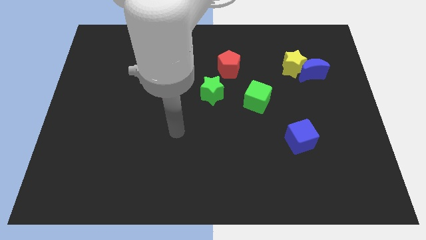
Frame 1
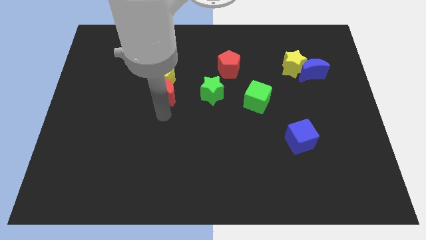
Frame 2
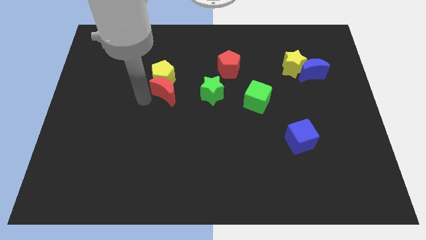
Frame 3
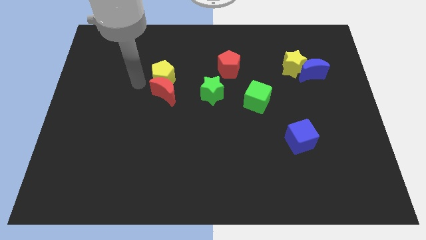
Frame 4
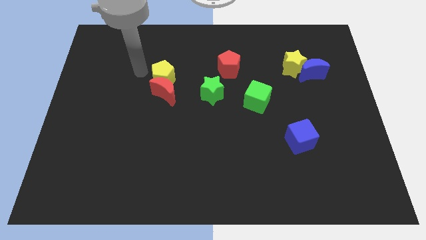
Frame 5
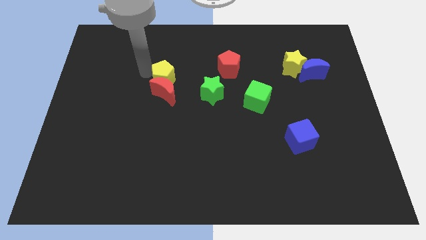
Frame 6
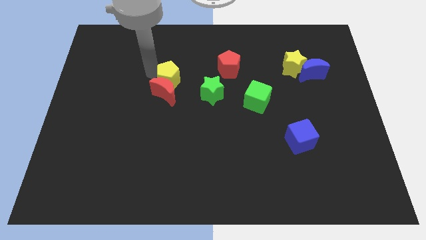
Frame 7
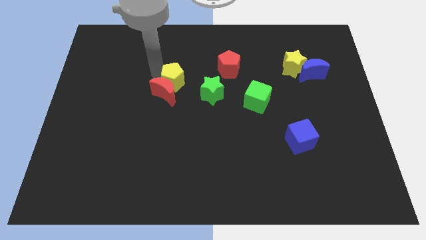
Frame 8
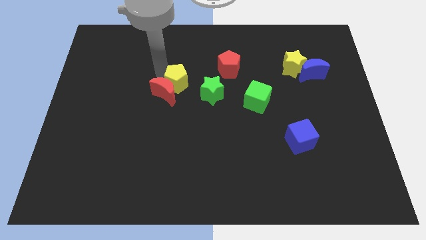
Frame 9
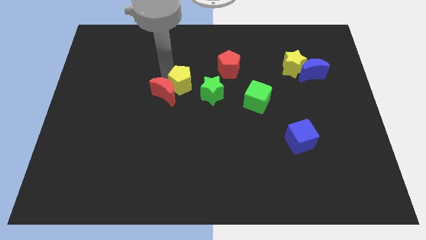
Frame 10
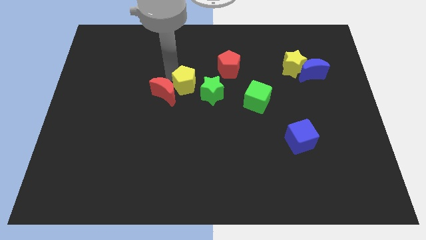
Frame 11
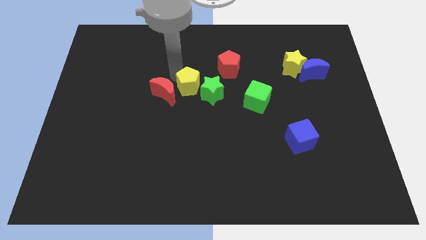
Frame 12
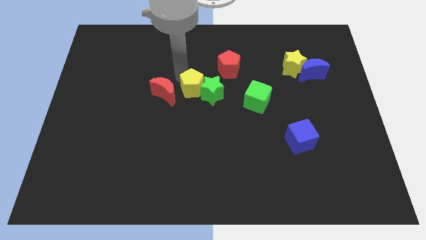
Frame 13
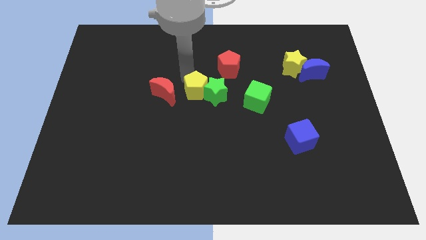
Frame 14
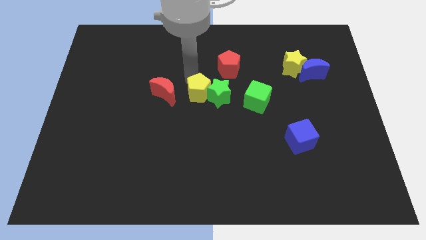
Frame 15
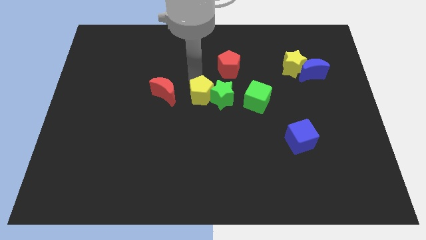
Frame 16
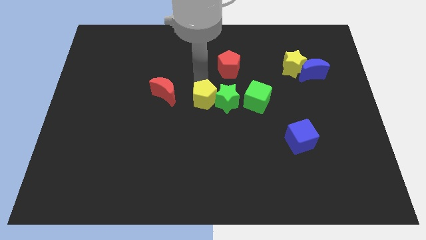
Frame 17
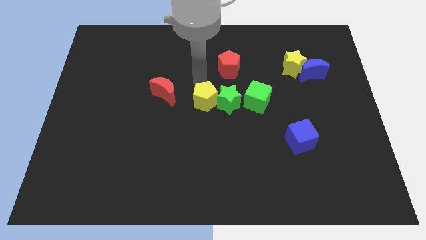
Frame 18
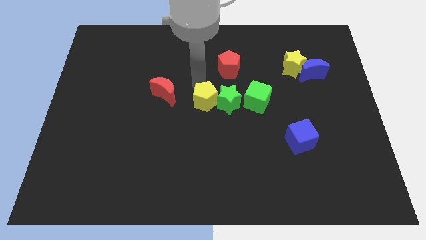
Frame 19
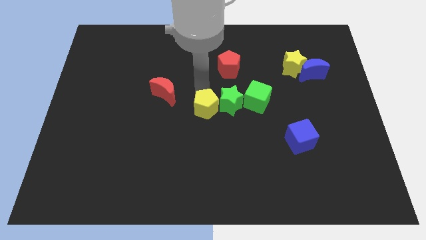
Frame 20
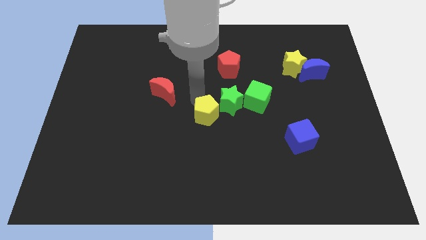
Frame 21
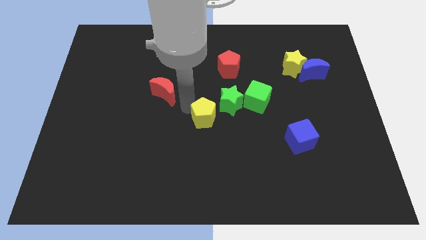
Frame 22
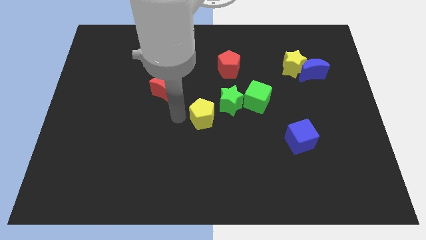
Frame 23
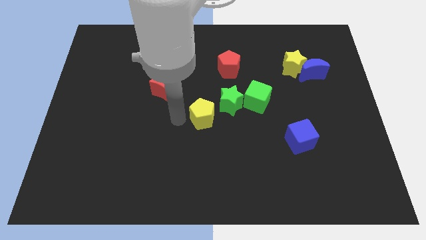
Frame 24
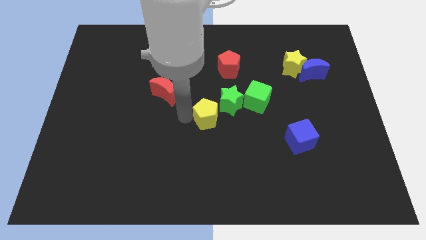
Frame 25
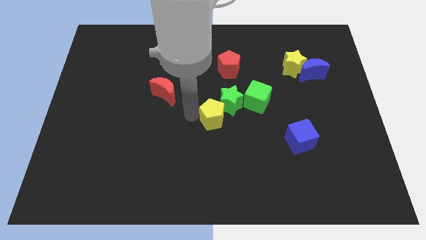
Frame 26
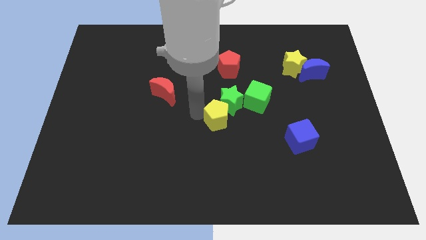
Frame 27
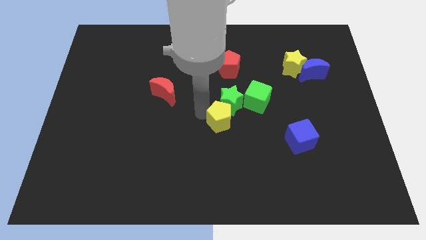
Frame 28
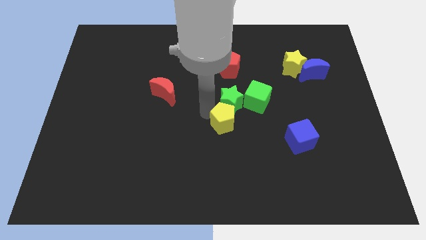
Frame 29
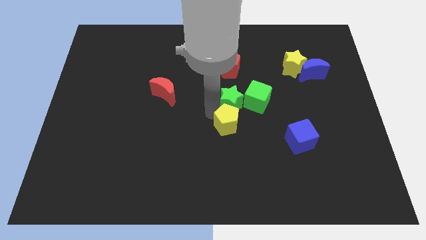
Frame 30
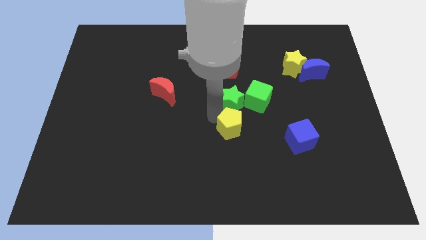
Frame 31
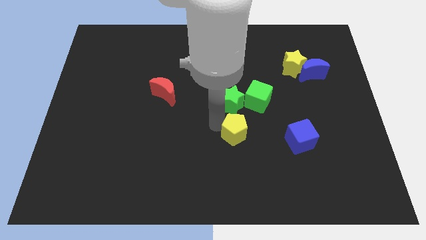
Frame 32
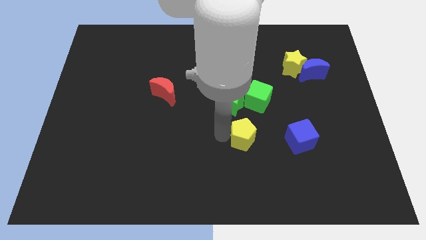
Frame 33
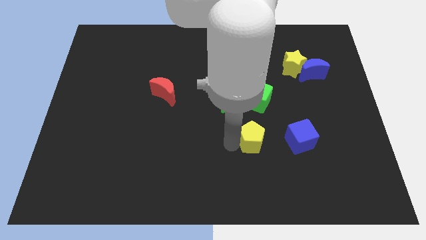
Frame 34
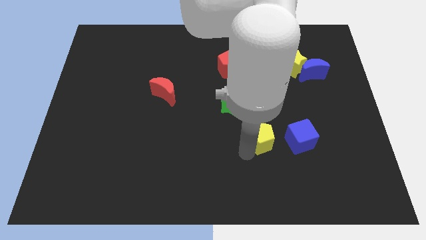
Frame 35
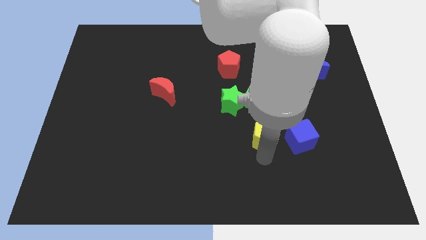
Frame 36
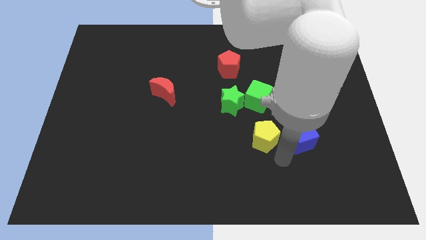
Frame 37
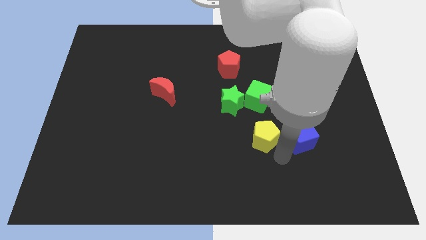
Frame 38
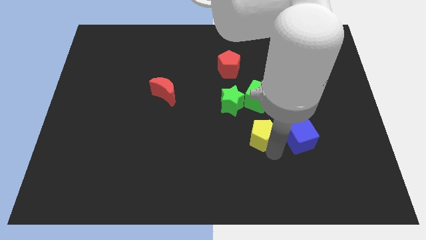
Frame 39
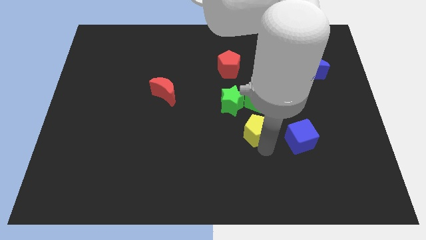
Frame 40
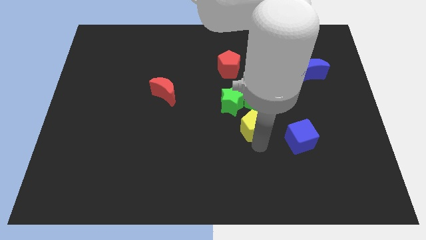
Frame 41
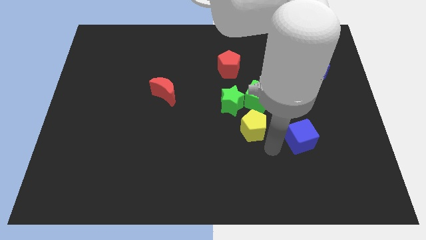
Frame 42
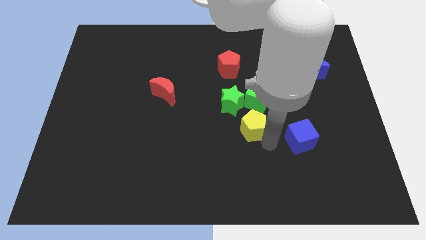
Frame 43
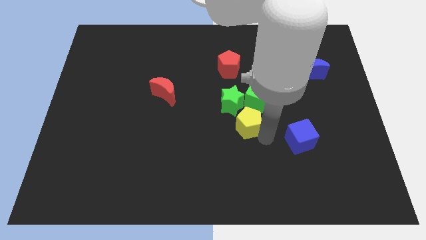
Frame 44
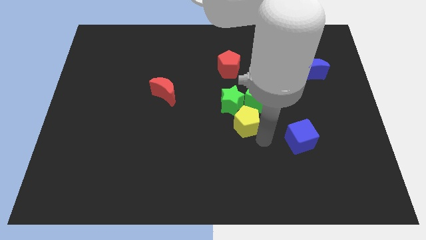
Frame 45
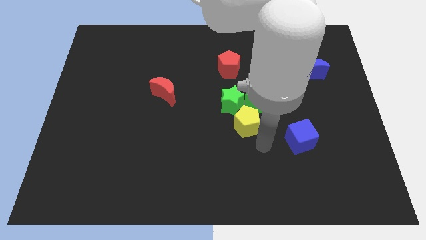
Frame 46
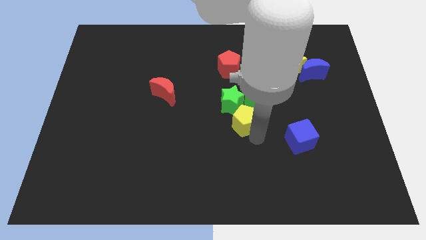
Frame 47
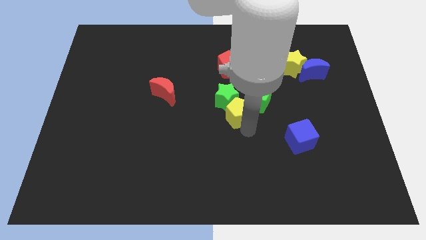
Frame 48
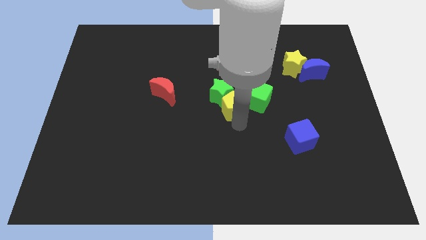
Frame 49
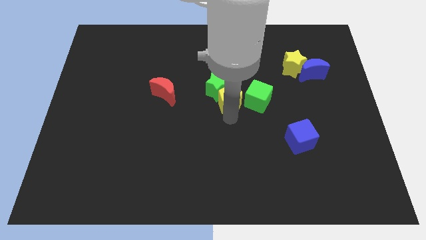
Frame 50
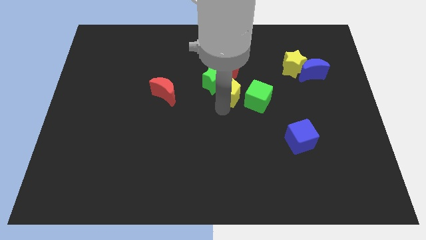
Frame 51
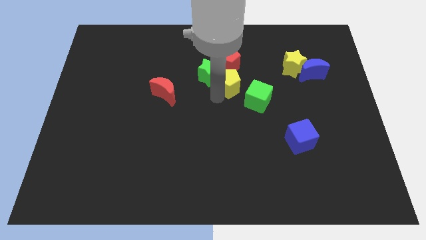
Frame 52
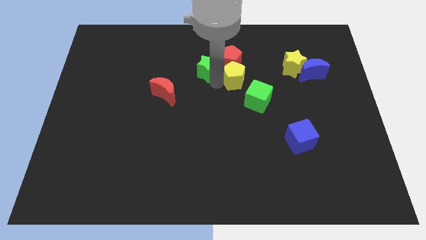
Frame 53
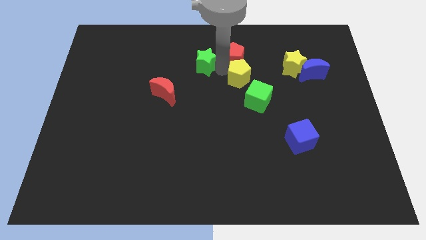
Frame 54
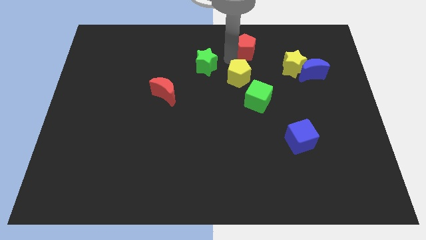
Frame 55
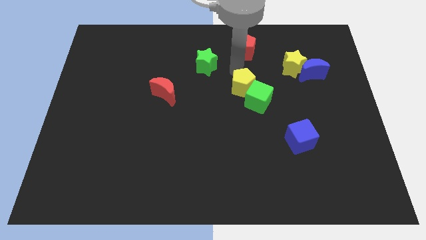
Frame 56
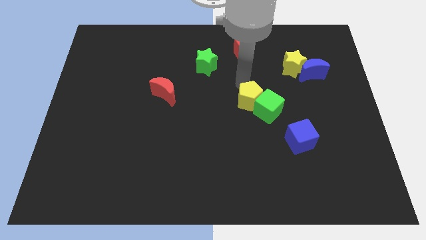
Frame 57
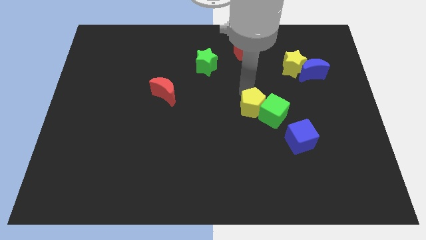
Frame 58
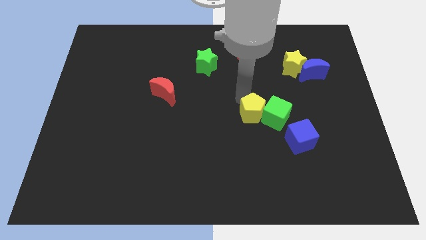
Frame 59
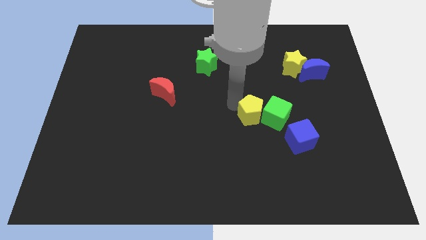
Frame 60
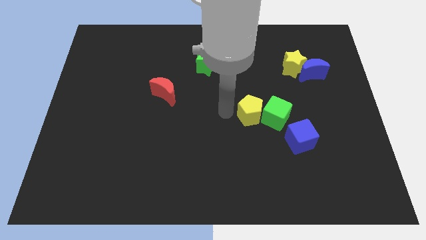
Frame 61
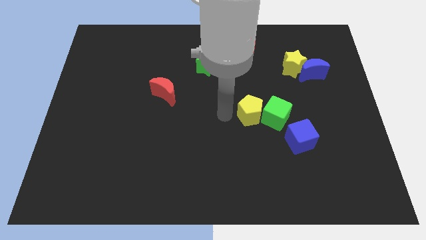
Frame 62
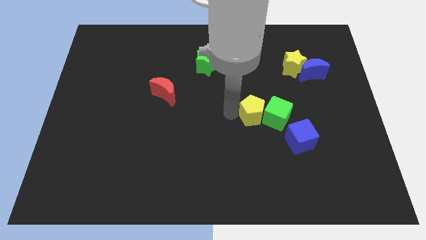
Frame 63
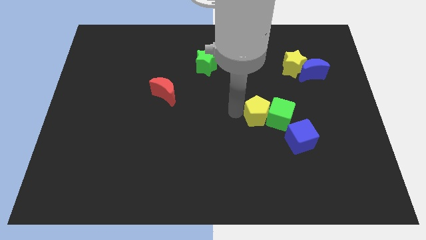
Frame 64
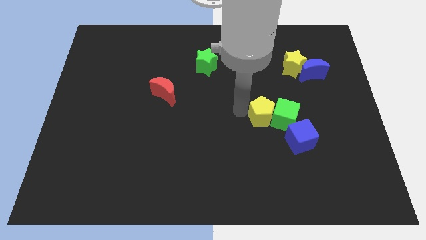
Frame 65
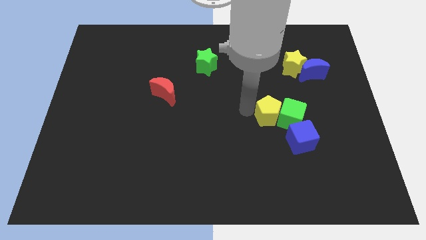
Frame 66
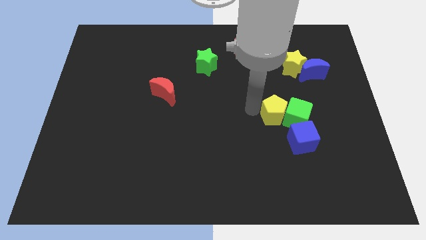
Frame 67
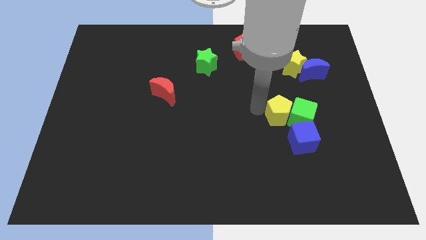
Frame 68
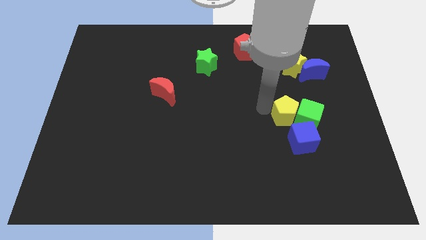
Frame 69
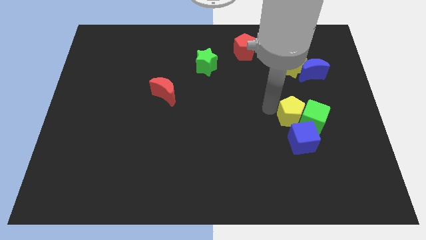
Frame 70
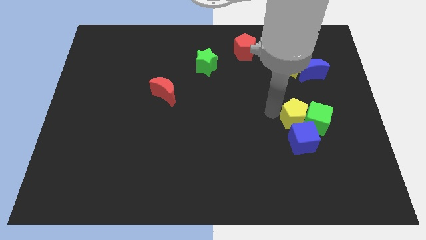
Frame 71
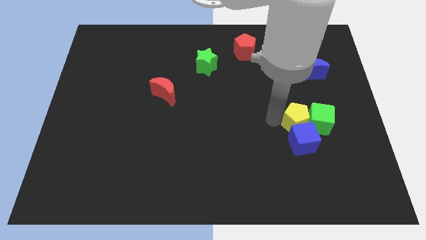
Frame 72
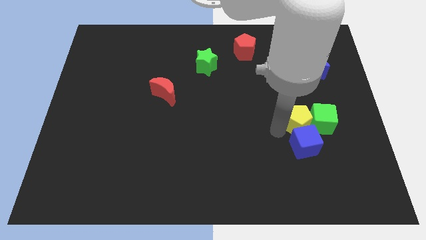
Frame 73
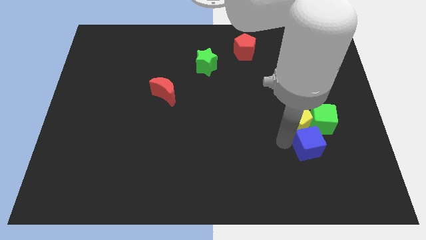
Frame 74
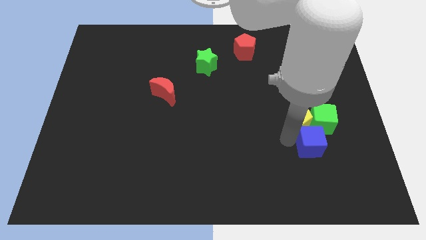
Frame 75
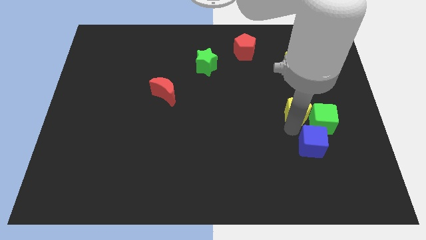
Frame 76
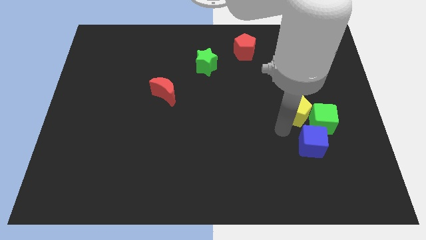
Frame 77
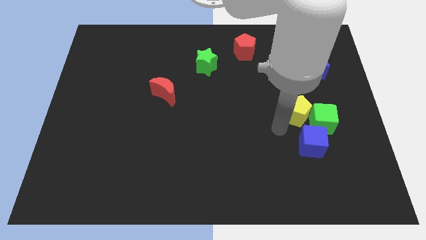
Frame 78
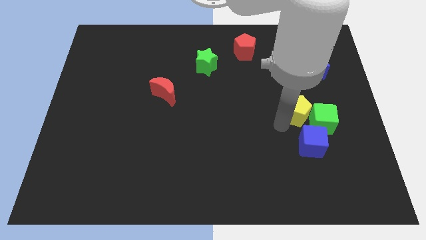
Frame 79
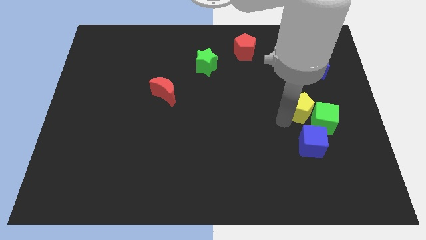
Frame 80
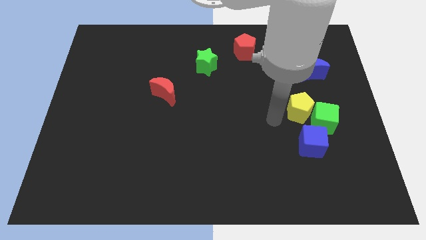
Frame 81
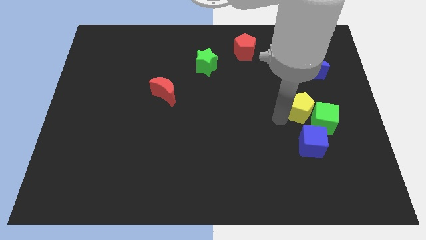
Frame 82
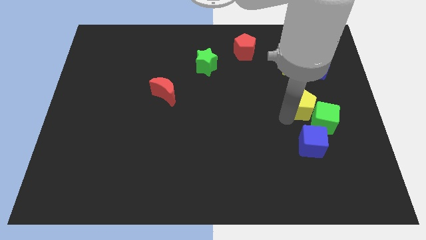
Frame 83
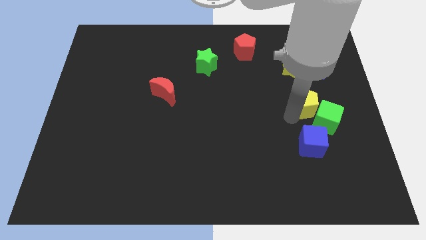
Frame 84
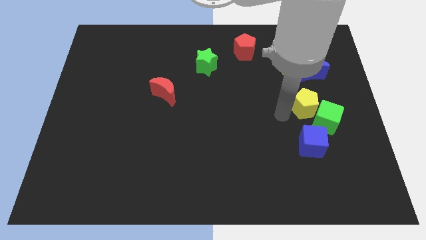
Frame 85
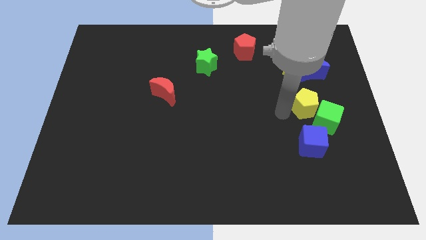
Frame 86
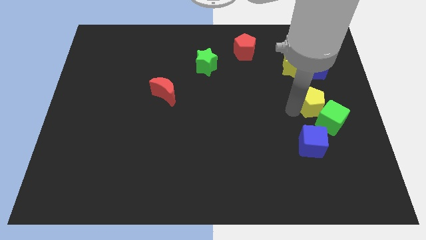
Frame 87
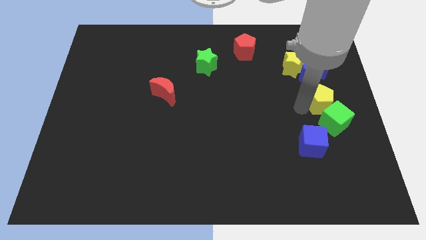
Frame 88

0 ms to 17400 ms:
move the yellow pentagon to the right side
